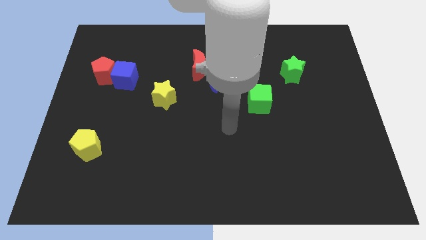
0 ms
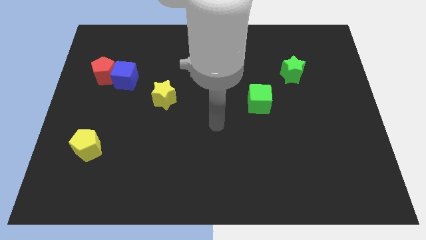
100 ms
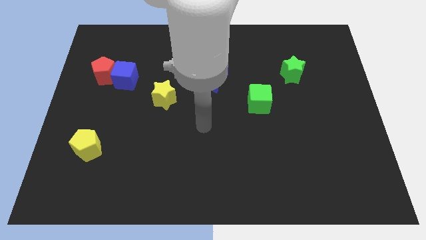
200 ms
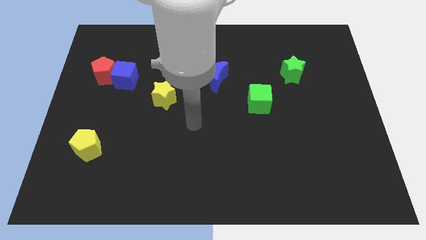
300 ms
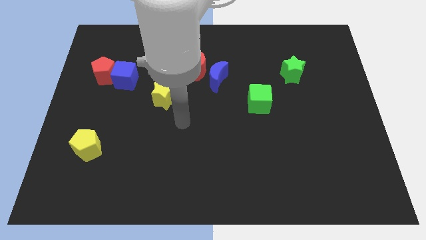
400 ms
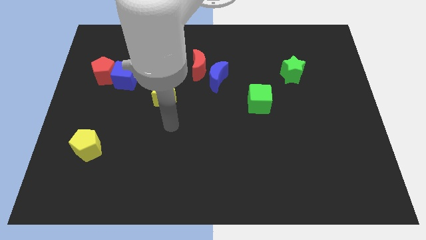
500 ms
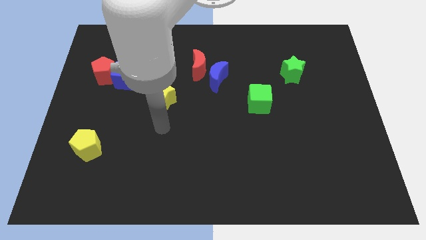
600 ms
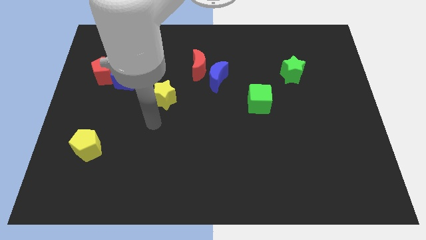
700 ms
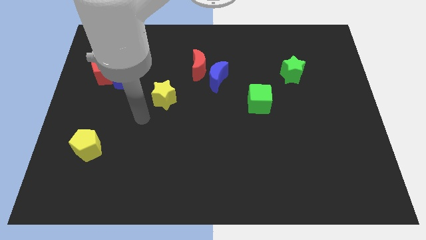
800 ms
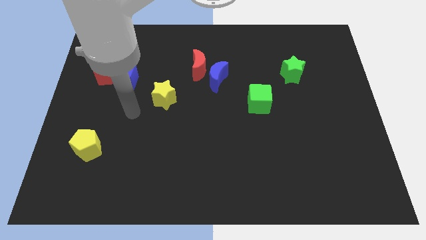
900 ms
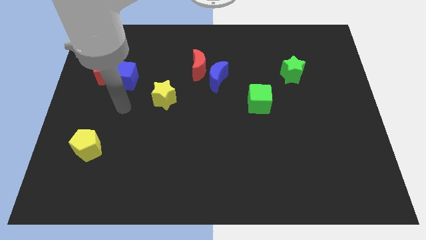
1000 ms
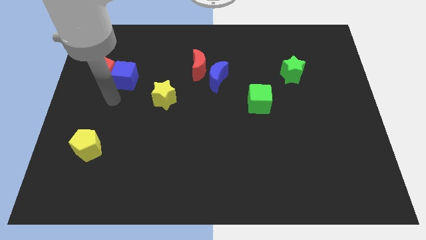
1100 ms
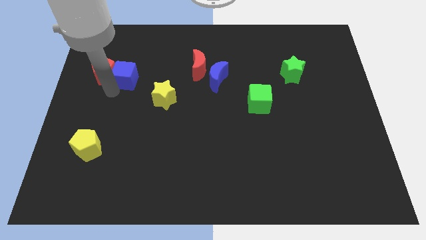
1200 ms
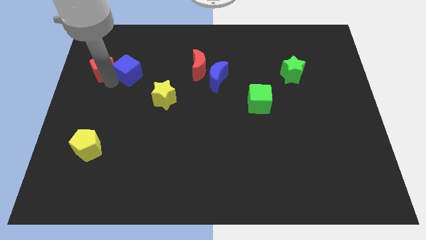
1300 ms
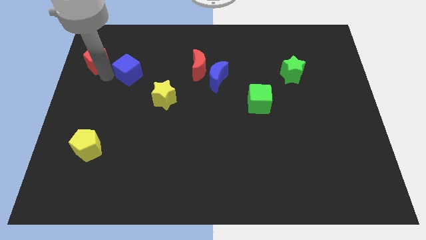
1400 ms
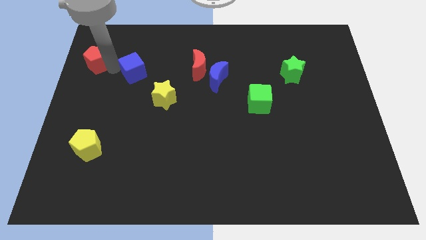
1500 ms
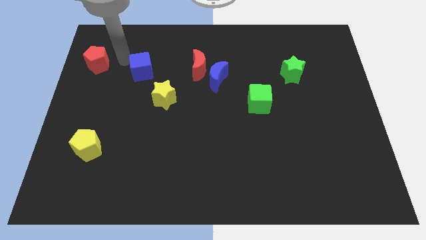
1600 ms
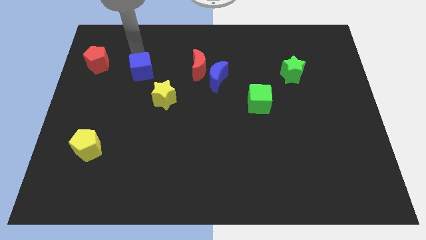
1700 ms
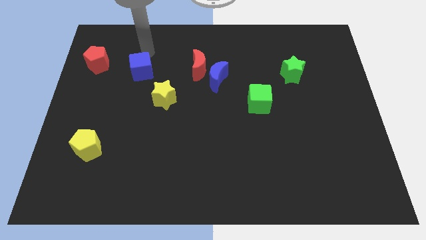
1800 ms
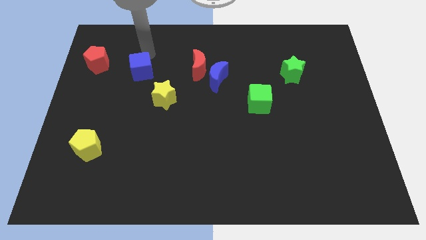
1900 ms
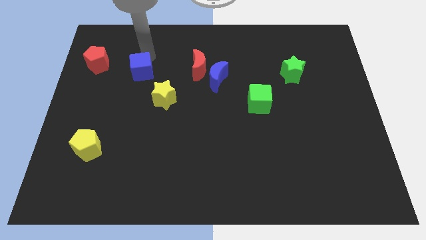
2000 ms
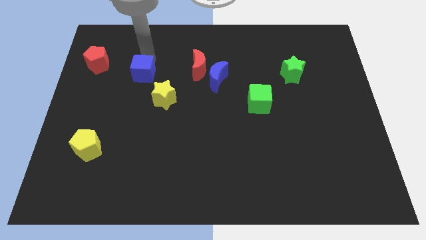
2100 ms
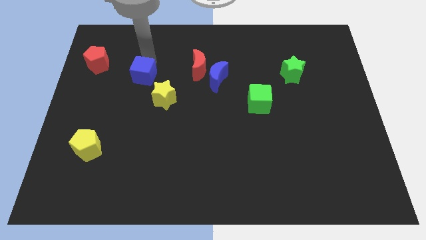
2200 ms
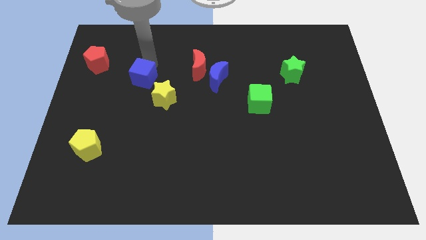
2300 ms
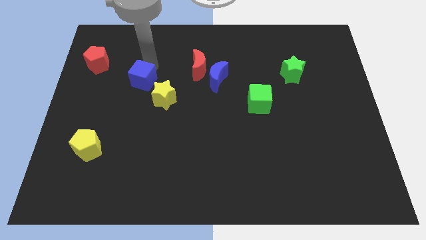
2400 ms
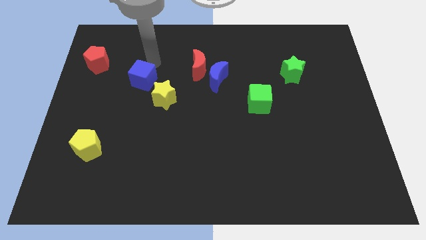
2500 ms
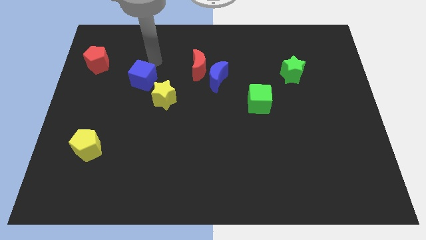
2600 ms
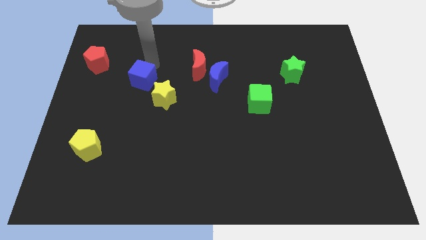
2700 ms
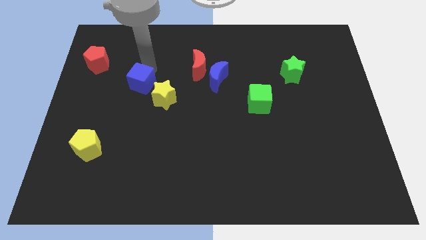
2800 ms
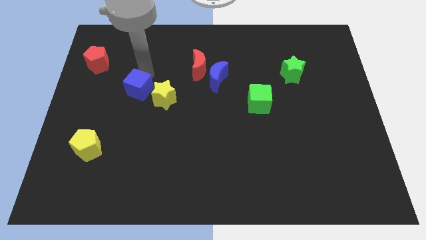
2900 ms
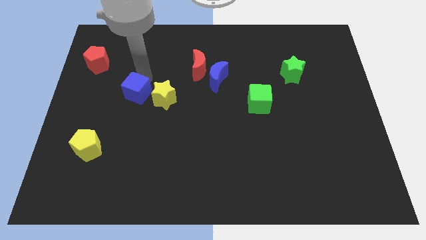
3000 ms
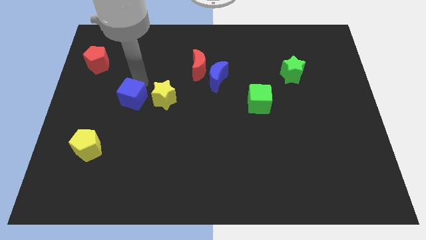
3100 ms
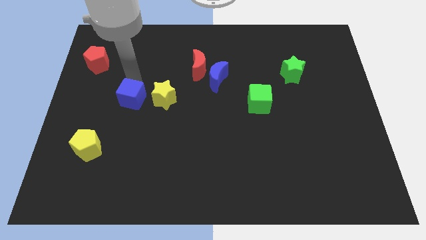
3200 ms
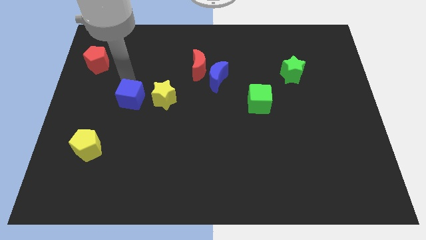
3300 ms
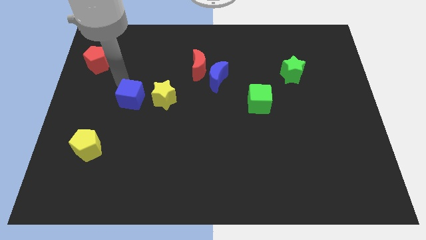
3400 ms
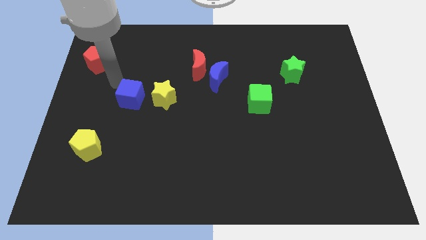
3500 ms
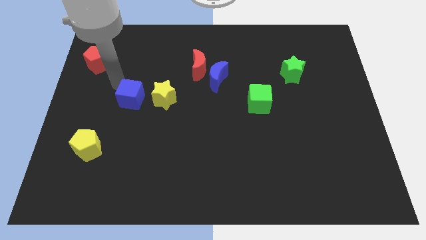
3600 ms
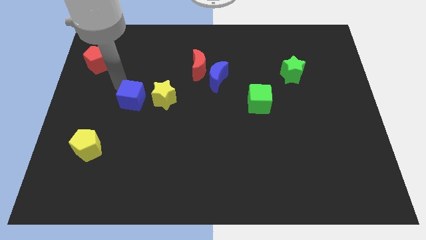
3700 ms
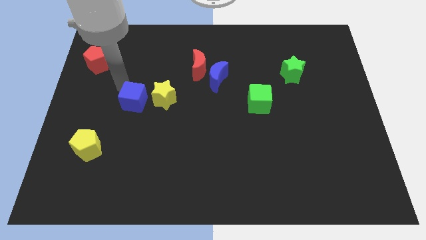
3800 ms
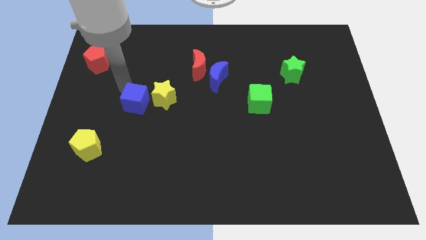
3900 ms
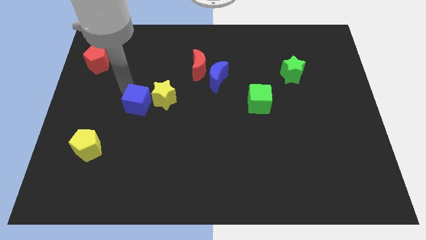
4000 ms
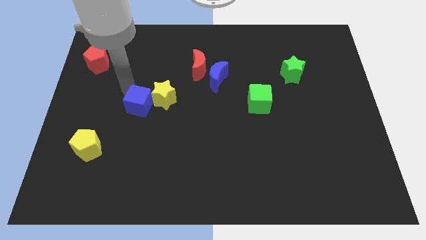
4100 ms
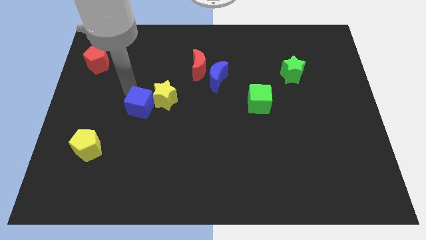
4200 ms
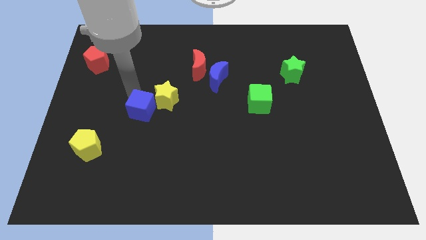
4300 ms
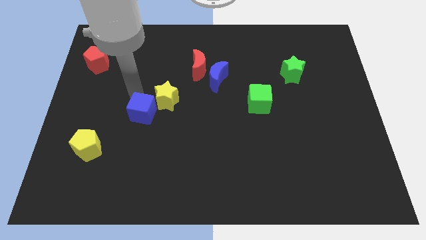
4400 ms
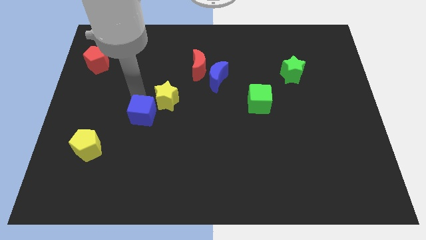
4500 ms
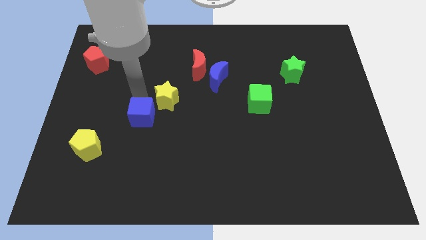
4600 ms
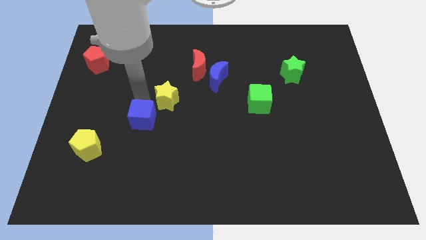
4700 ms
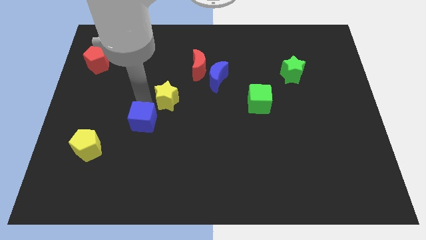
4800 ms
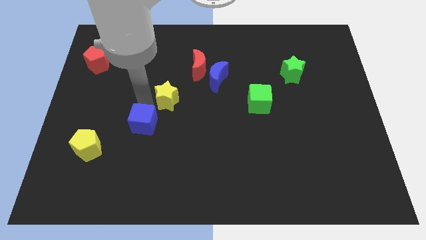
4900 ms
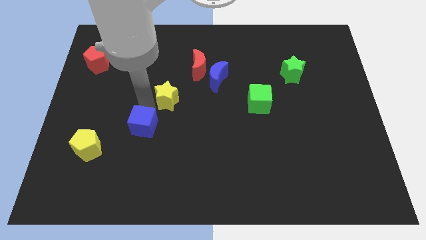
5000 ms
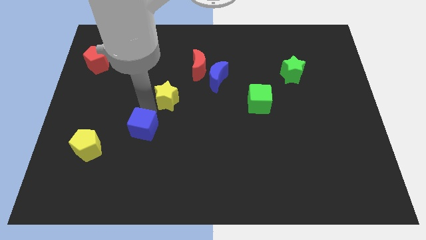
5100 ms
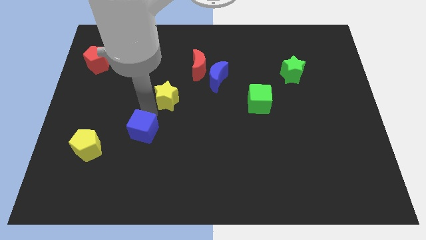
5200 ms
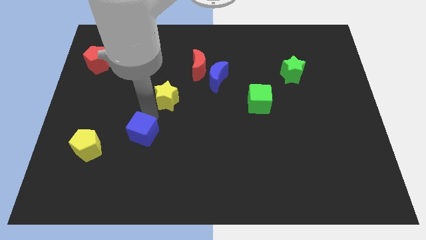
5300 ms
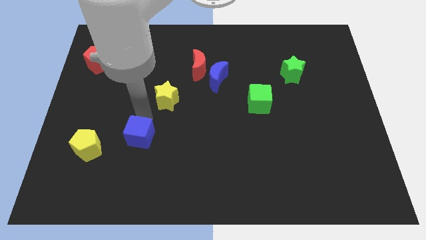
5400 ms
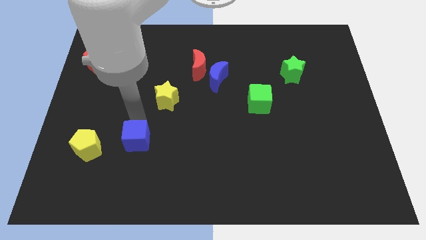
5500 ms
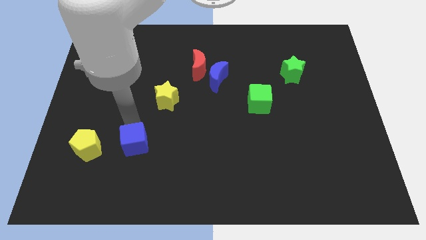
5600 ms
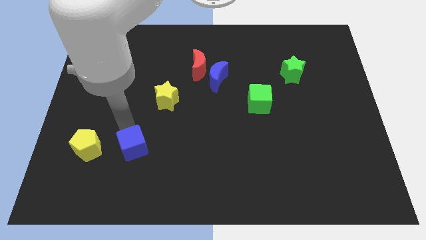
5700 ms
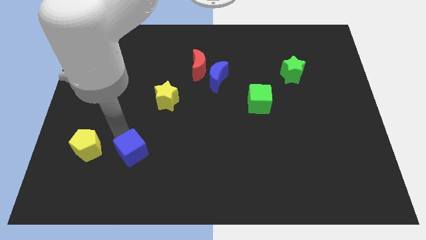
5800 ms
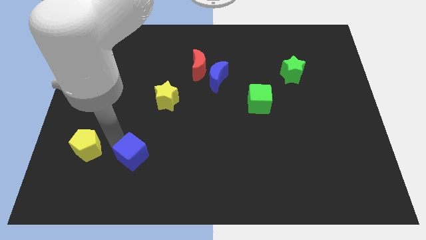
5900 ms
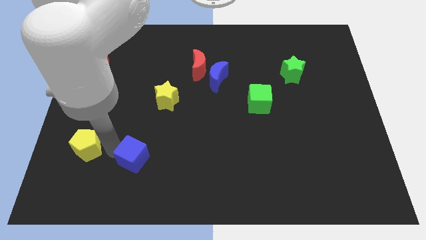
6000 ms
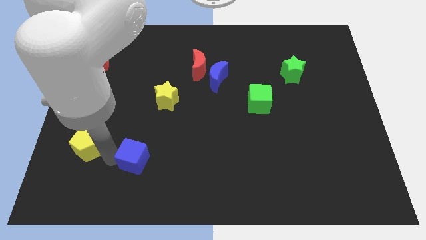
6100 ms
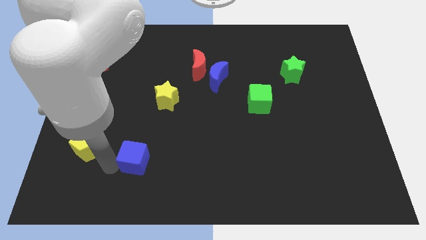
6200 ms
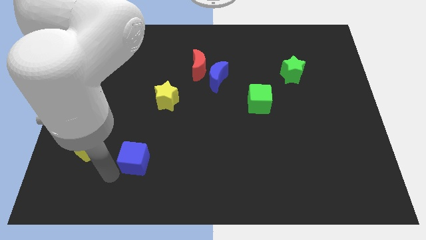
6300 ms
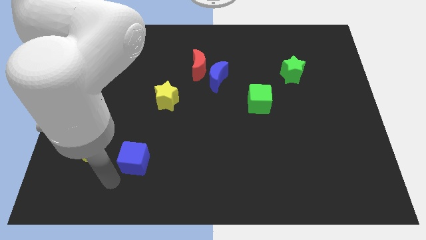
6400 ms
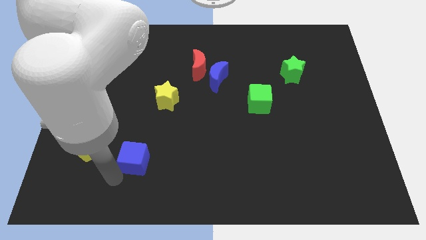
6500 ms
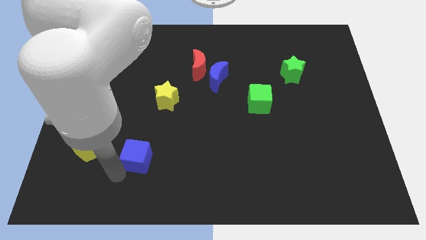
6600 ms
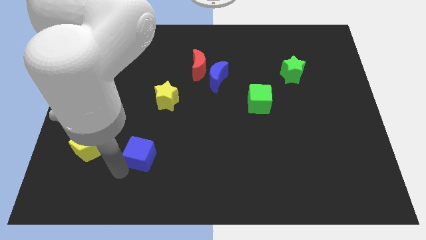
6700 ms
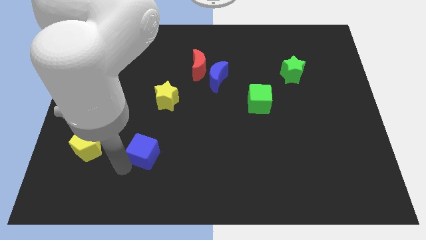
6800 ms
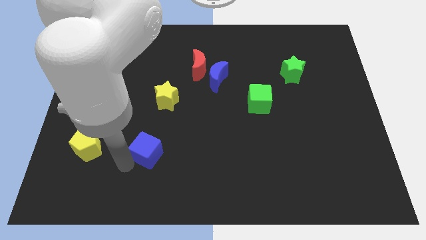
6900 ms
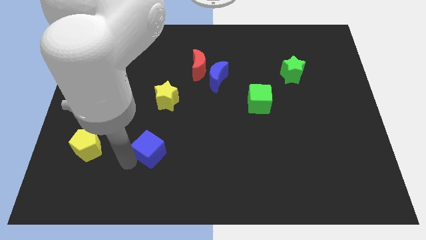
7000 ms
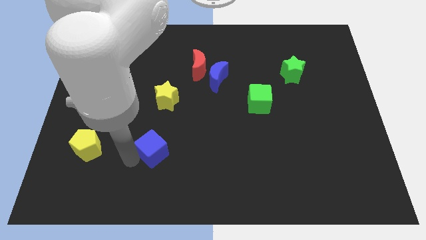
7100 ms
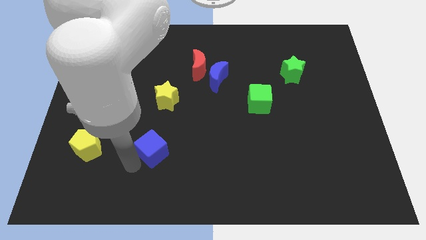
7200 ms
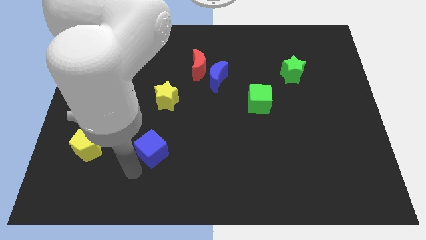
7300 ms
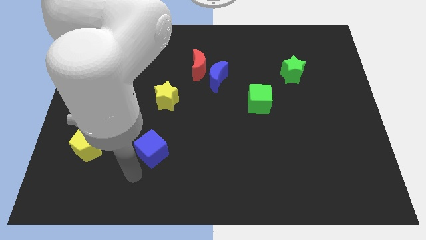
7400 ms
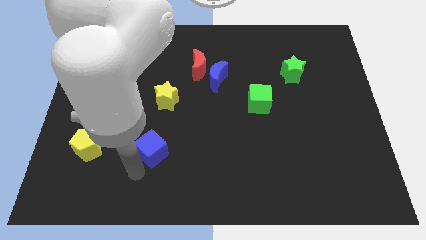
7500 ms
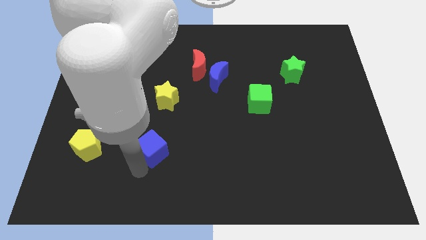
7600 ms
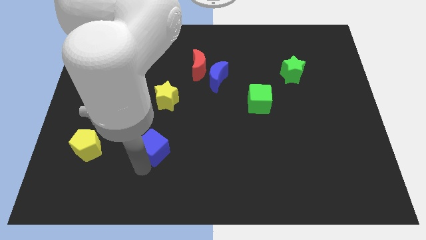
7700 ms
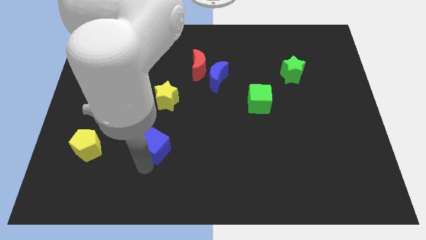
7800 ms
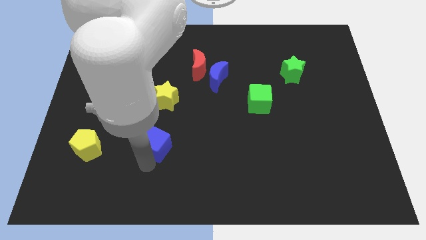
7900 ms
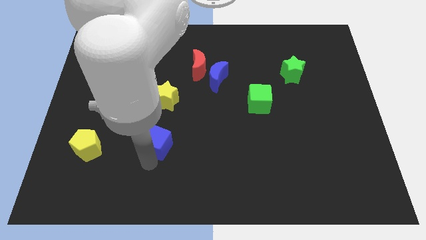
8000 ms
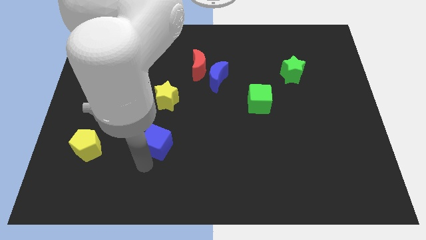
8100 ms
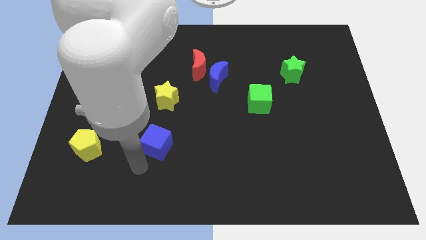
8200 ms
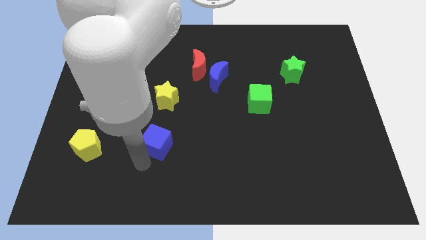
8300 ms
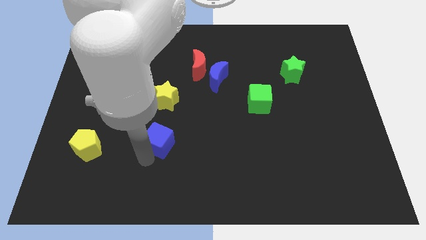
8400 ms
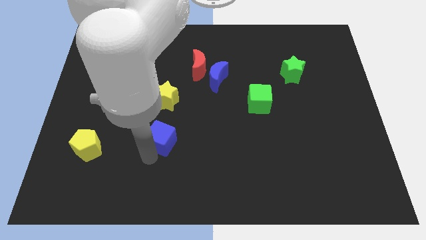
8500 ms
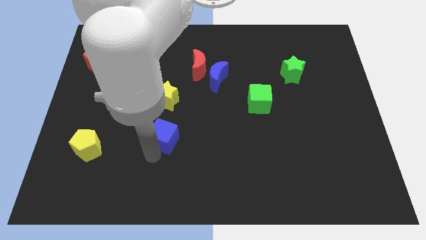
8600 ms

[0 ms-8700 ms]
push the blue cube downwards and to the right
